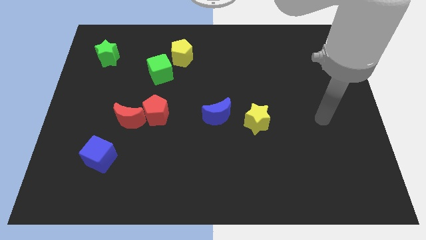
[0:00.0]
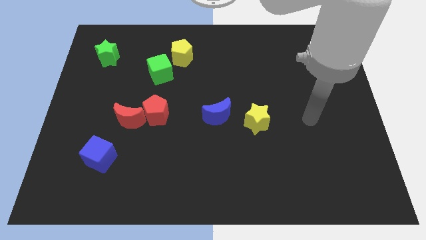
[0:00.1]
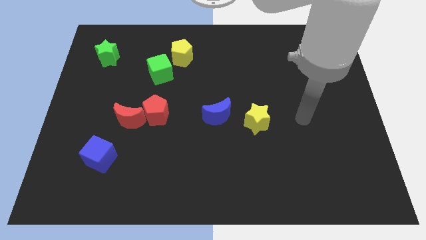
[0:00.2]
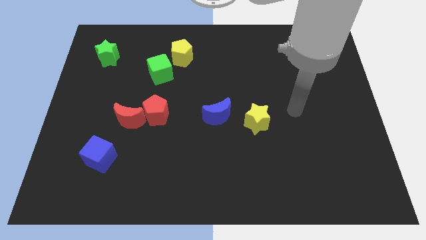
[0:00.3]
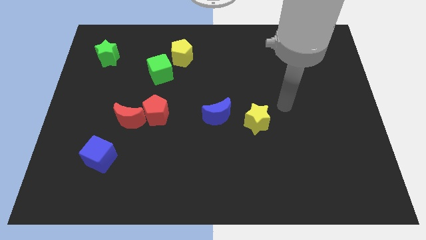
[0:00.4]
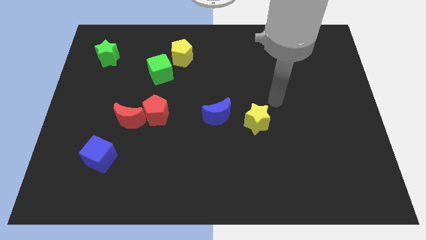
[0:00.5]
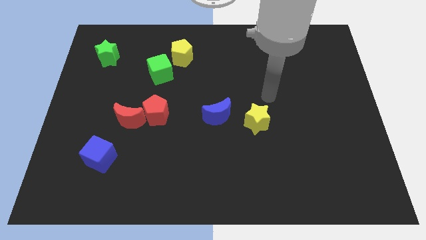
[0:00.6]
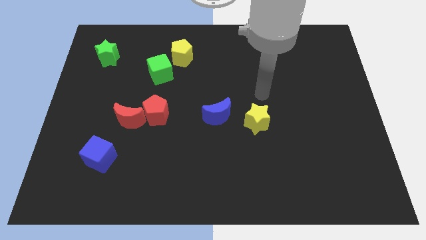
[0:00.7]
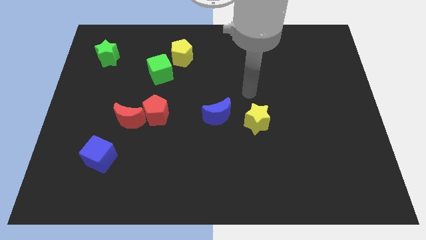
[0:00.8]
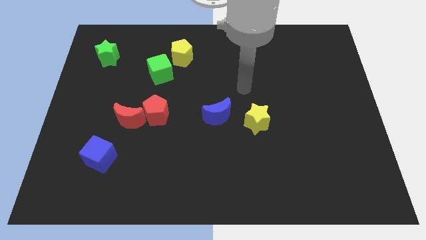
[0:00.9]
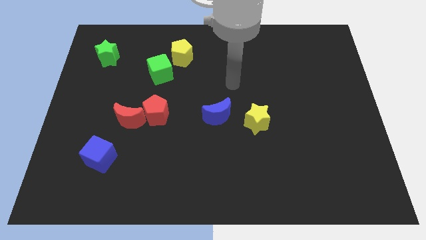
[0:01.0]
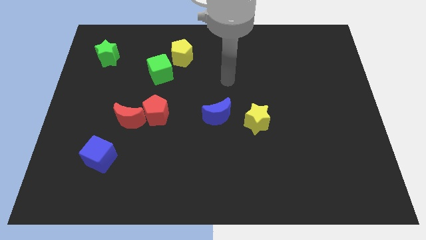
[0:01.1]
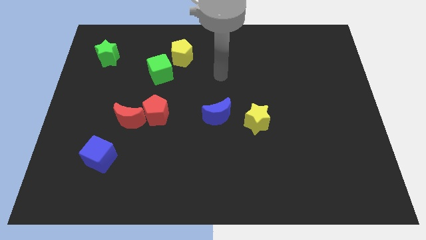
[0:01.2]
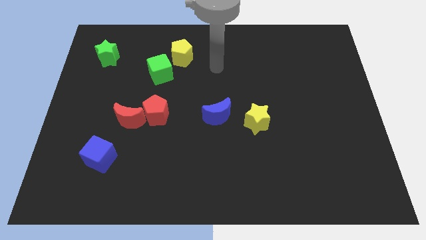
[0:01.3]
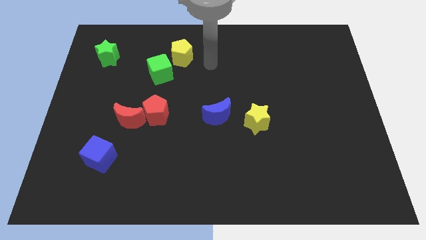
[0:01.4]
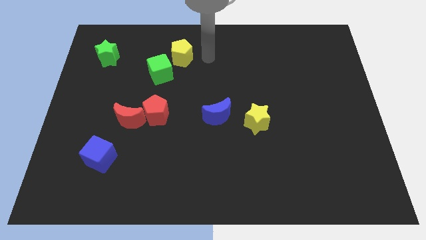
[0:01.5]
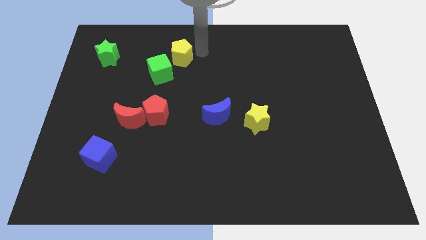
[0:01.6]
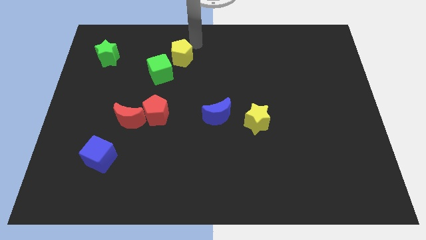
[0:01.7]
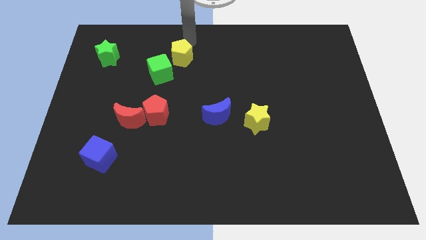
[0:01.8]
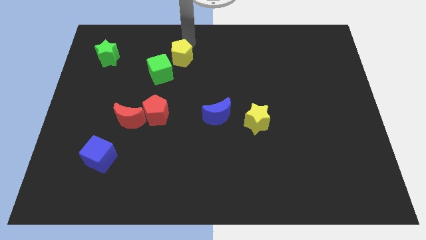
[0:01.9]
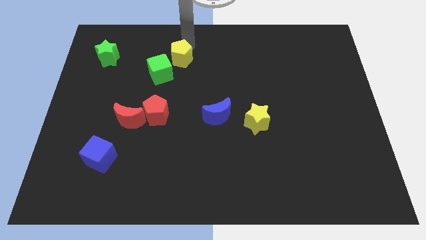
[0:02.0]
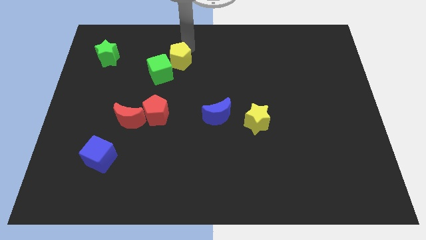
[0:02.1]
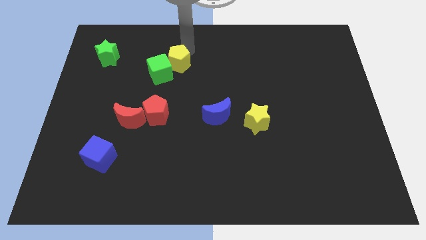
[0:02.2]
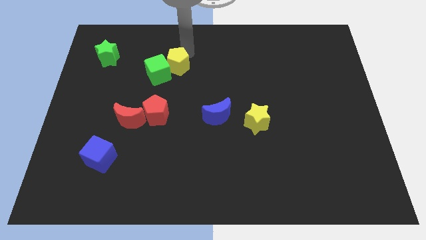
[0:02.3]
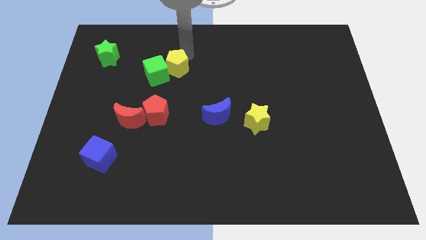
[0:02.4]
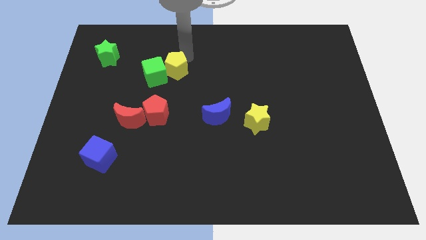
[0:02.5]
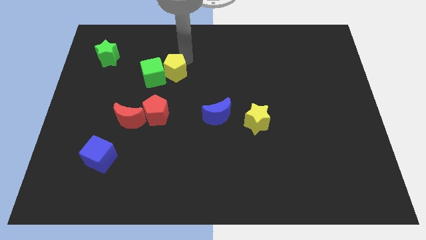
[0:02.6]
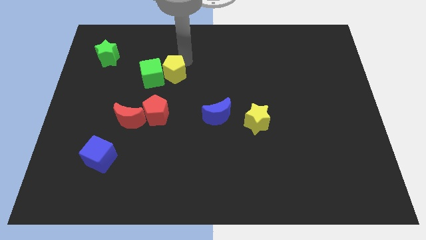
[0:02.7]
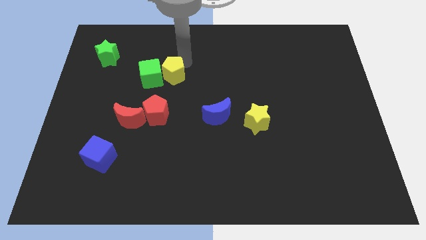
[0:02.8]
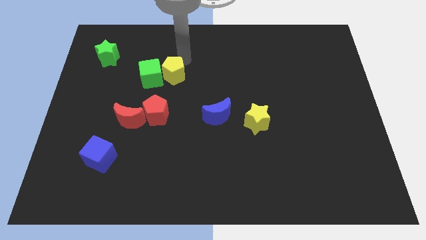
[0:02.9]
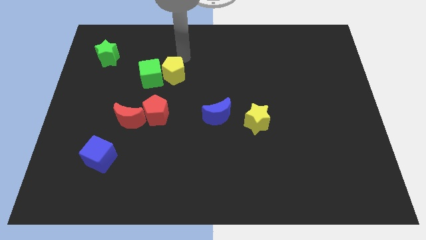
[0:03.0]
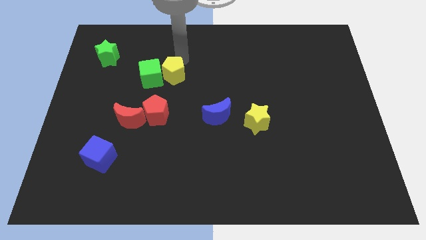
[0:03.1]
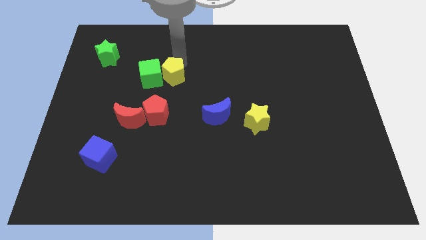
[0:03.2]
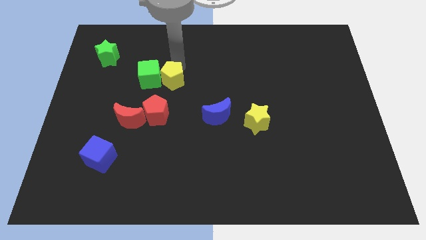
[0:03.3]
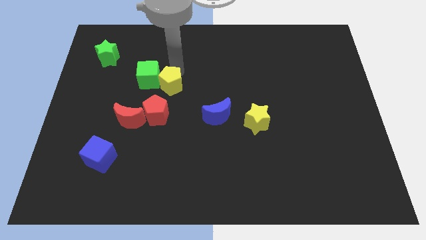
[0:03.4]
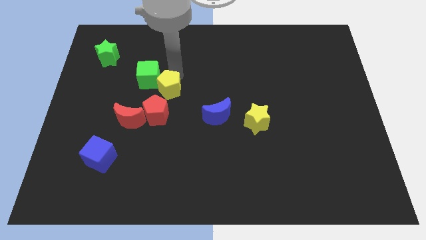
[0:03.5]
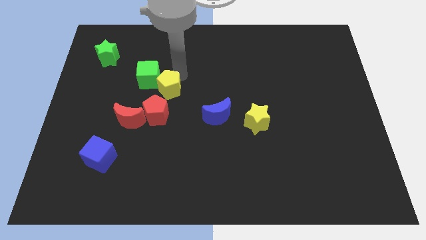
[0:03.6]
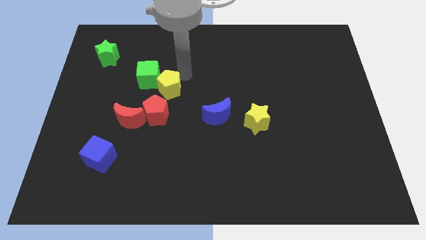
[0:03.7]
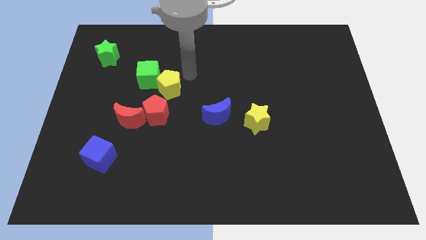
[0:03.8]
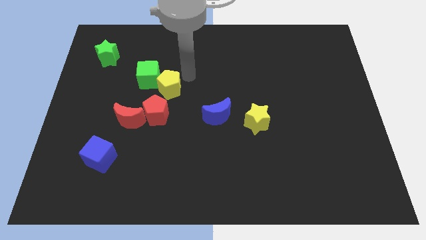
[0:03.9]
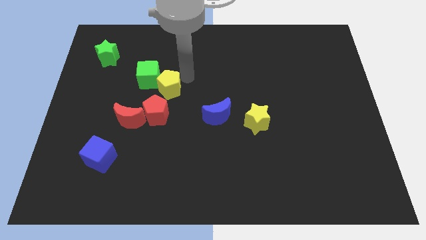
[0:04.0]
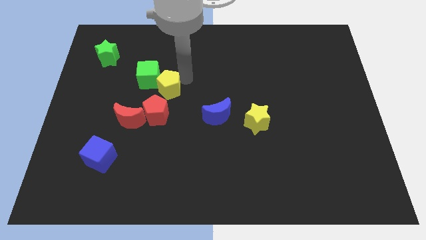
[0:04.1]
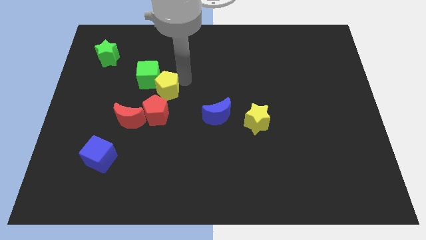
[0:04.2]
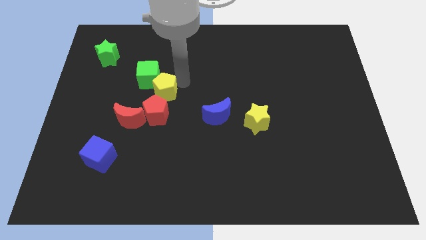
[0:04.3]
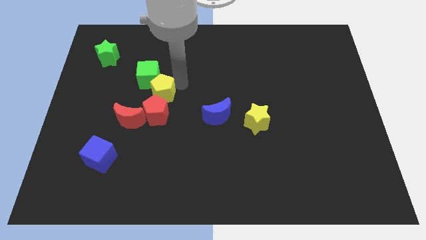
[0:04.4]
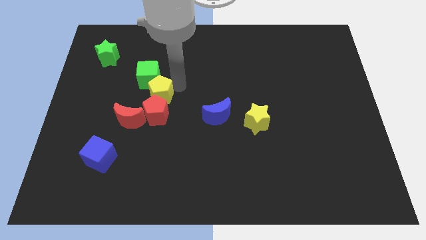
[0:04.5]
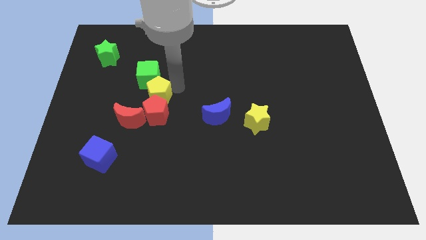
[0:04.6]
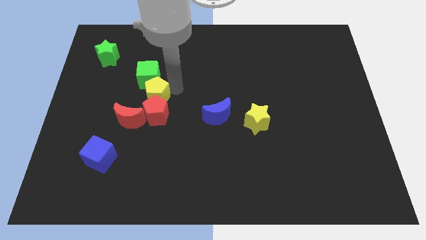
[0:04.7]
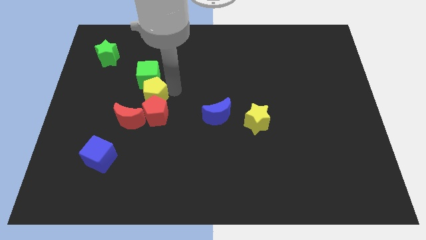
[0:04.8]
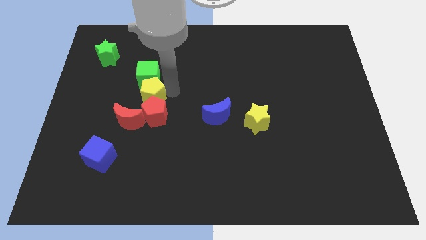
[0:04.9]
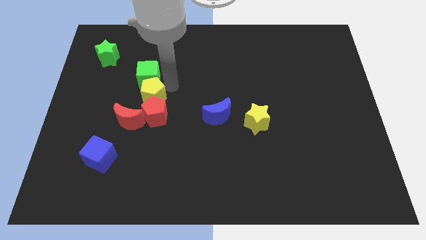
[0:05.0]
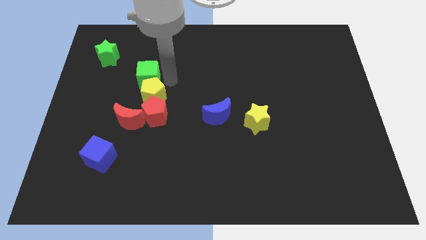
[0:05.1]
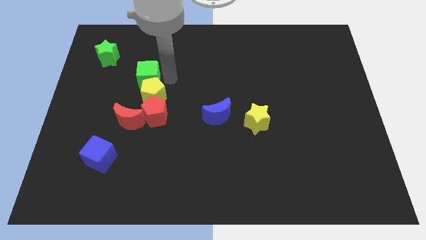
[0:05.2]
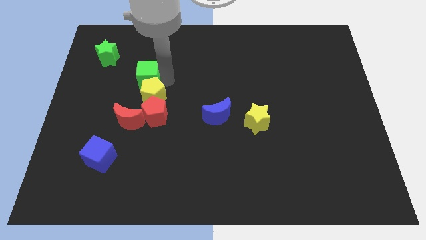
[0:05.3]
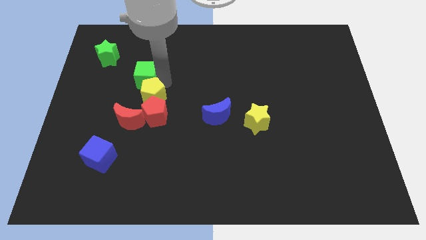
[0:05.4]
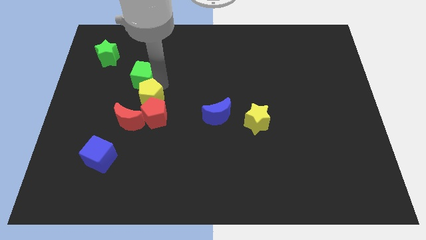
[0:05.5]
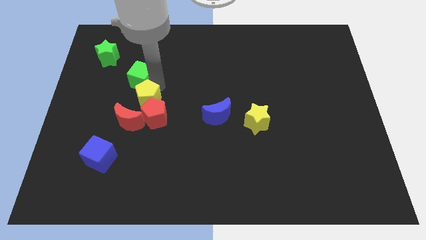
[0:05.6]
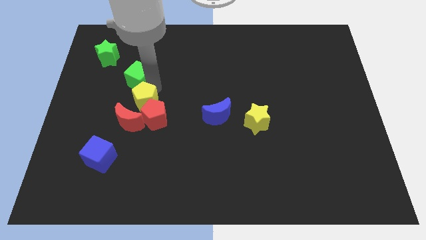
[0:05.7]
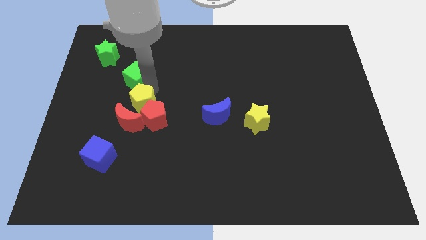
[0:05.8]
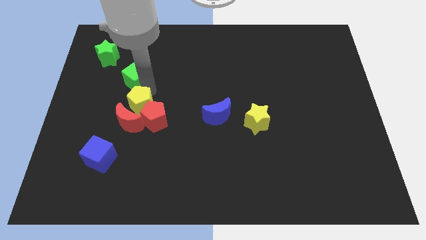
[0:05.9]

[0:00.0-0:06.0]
put the yellow pentagon towards the red moon

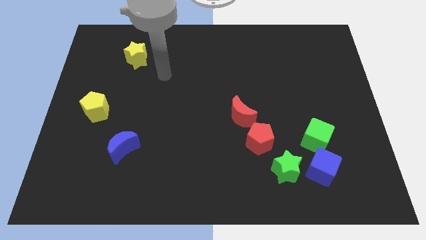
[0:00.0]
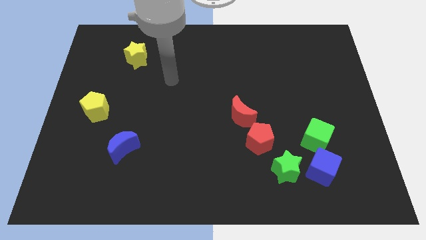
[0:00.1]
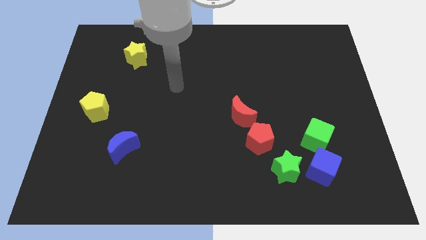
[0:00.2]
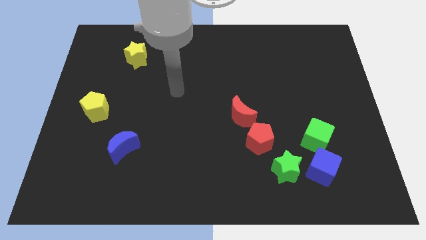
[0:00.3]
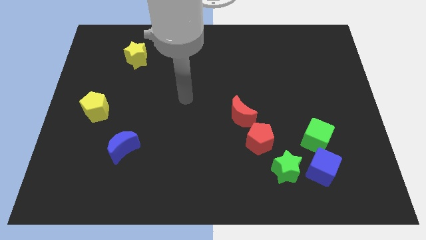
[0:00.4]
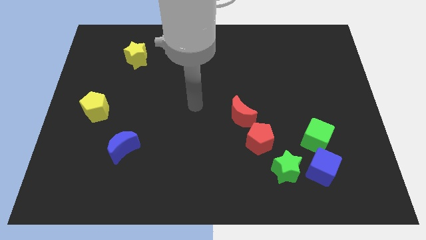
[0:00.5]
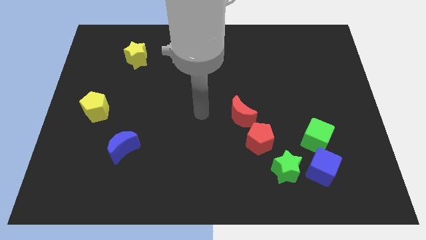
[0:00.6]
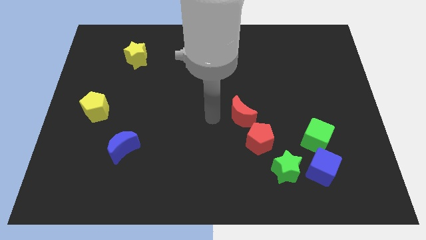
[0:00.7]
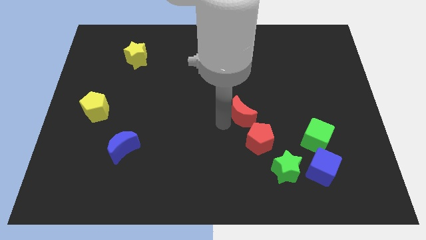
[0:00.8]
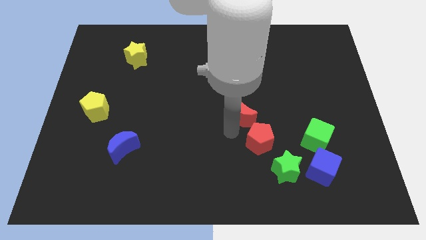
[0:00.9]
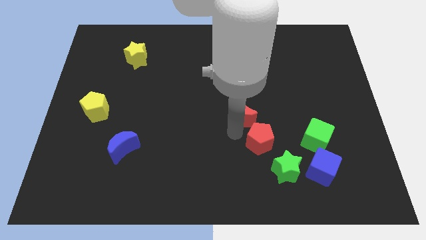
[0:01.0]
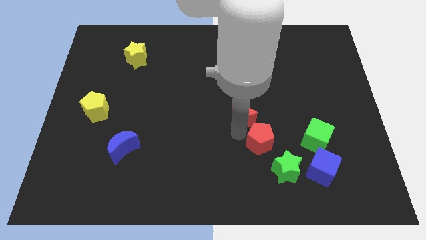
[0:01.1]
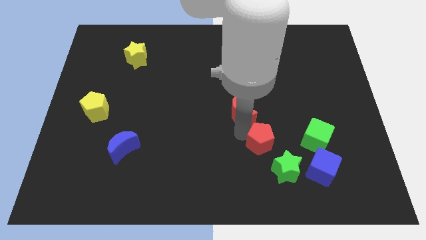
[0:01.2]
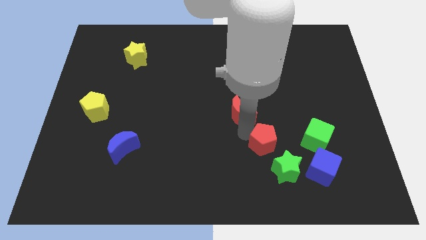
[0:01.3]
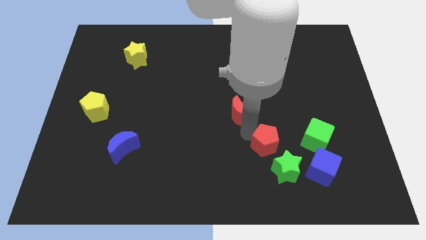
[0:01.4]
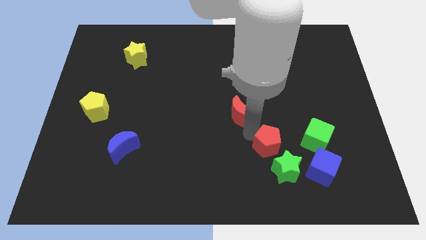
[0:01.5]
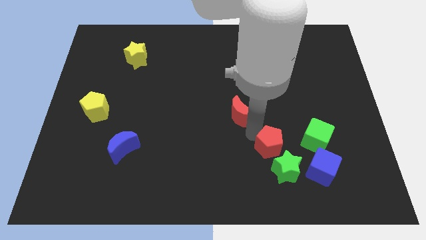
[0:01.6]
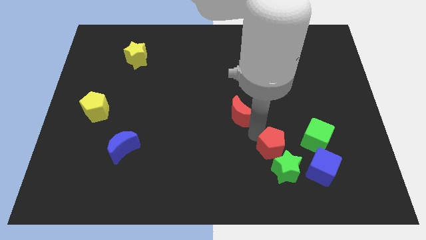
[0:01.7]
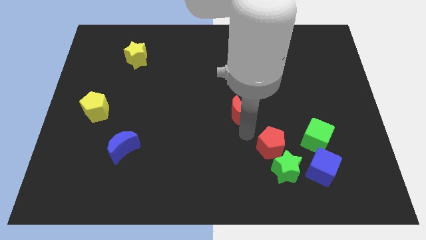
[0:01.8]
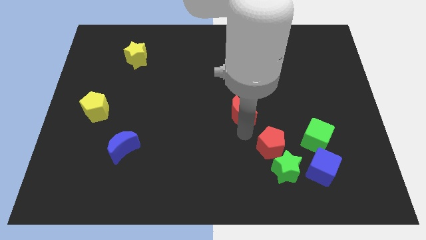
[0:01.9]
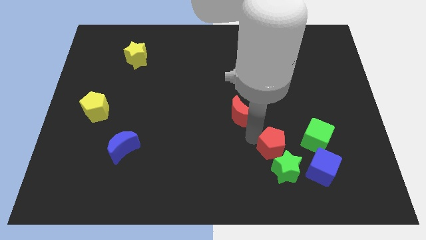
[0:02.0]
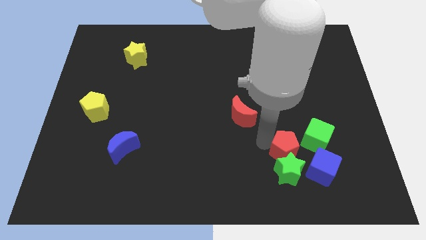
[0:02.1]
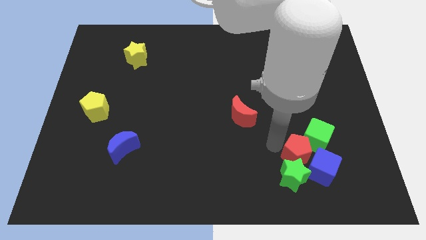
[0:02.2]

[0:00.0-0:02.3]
slide the red pentagon to the blue cube
